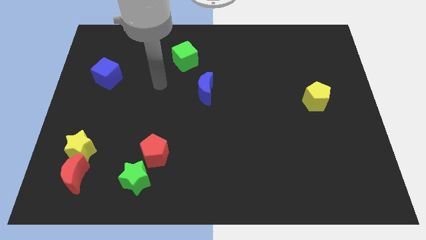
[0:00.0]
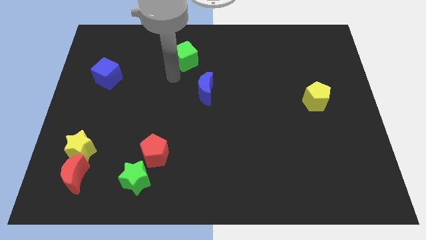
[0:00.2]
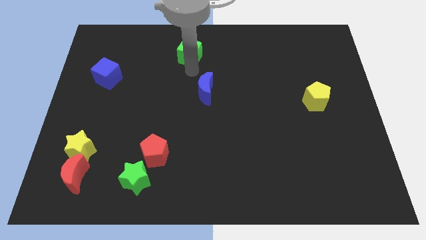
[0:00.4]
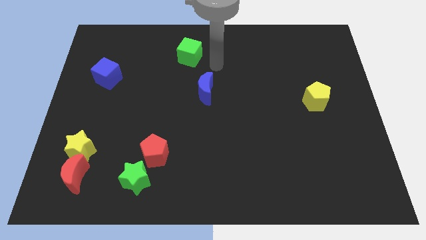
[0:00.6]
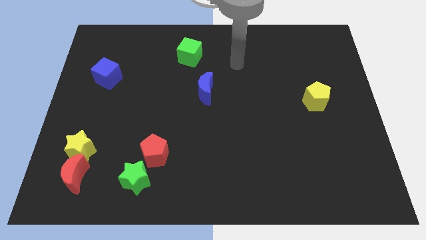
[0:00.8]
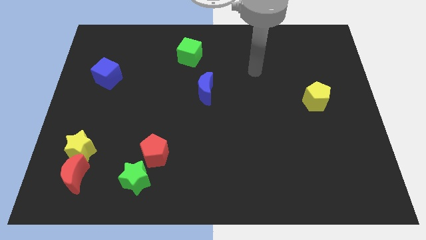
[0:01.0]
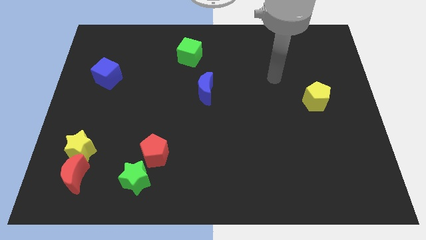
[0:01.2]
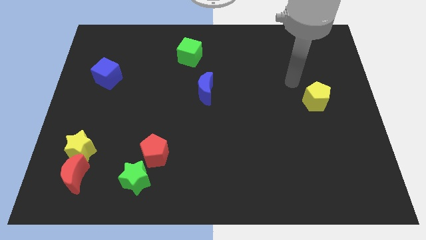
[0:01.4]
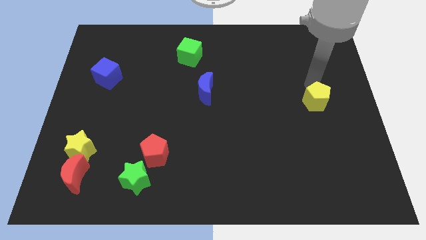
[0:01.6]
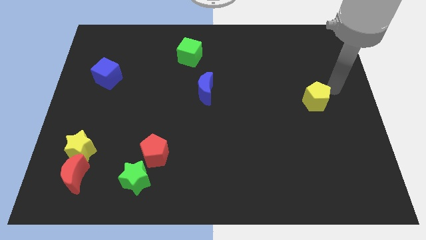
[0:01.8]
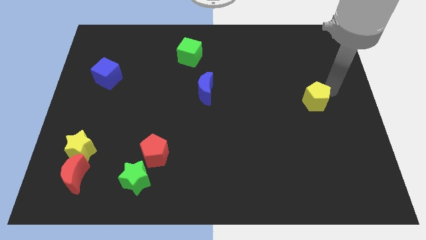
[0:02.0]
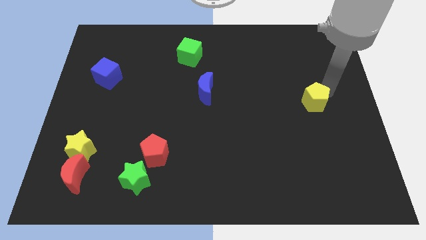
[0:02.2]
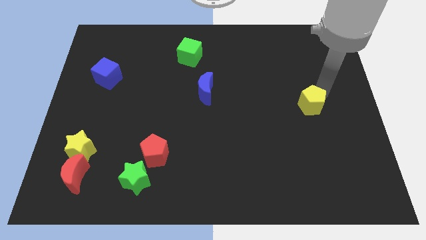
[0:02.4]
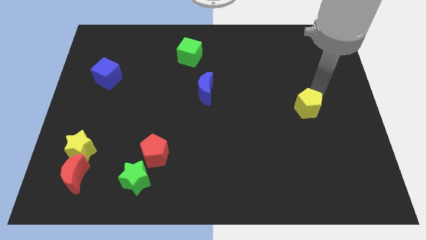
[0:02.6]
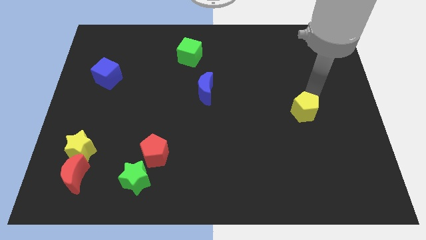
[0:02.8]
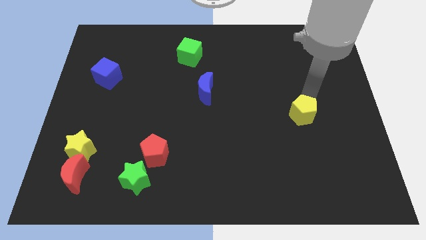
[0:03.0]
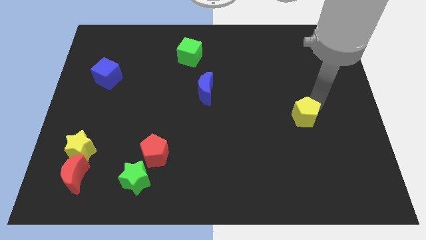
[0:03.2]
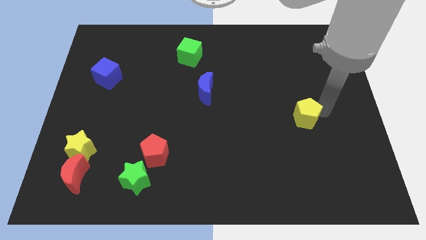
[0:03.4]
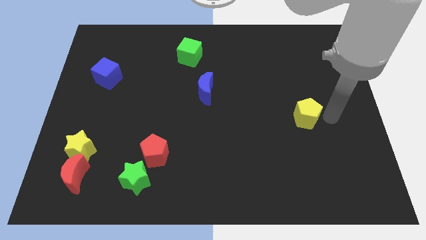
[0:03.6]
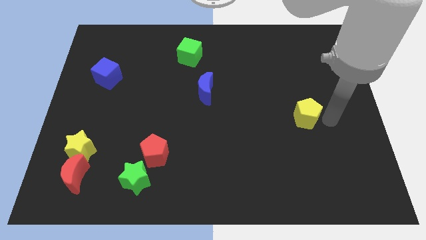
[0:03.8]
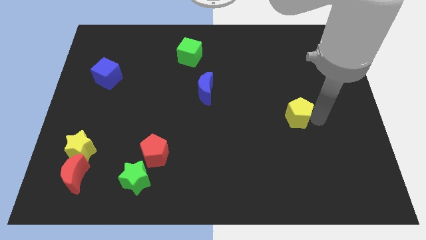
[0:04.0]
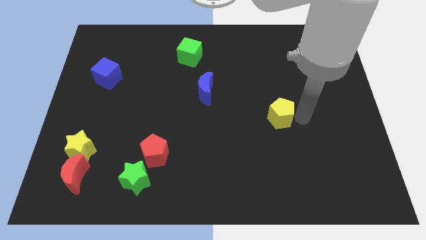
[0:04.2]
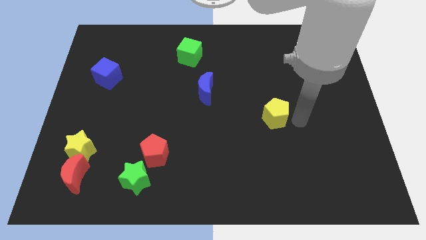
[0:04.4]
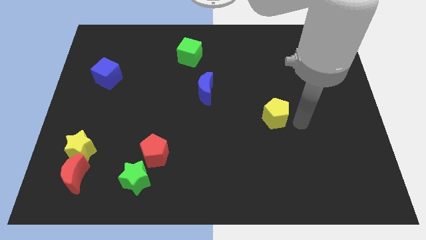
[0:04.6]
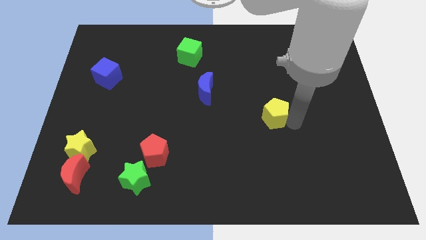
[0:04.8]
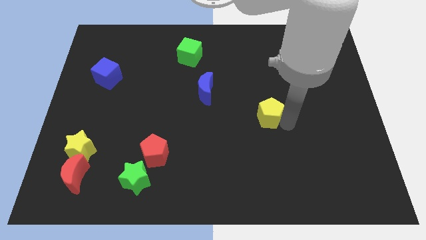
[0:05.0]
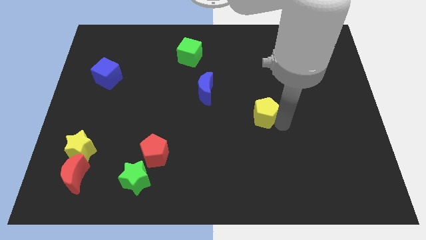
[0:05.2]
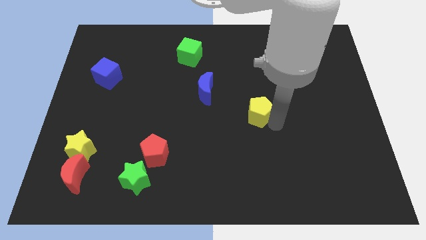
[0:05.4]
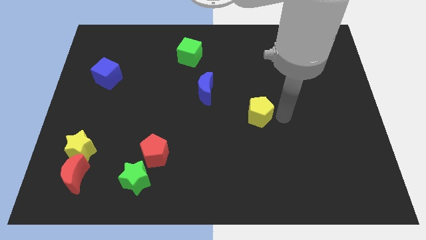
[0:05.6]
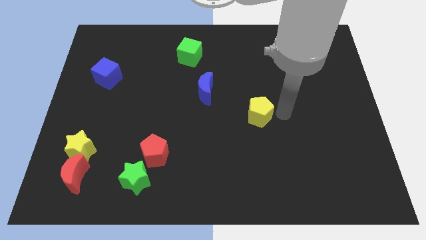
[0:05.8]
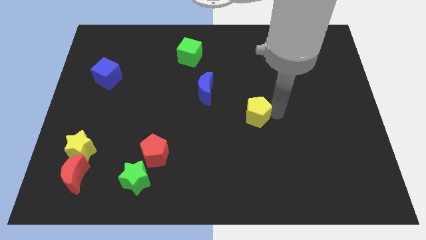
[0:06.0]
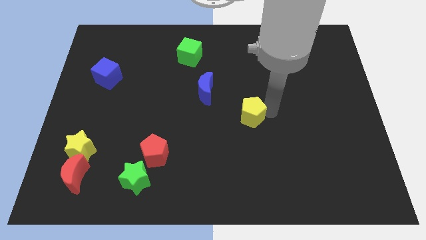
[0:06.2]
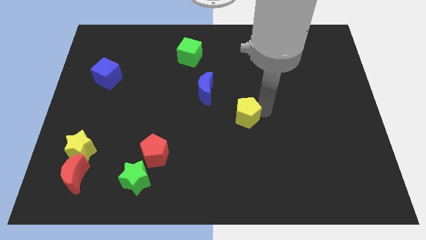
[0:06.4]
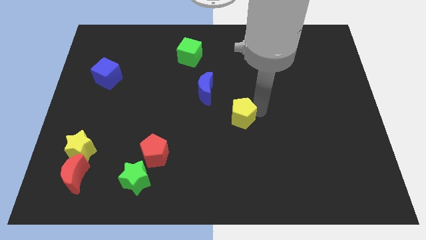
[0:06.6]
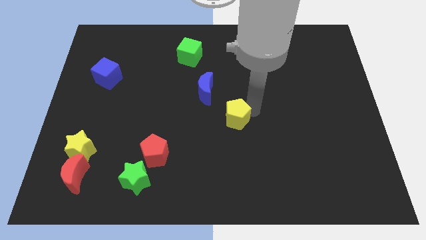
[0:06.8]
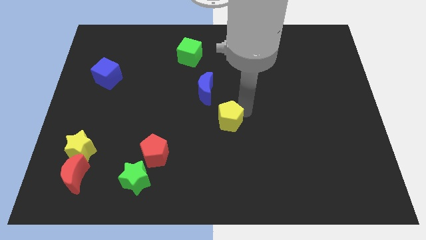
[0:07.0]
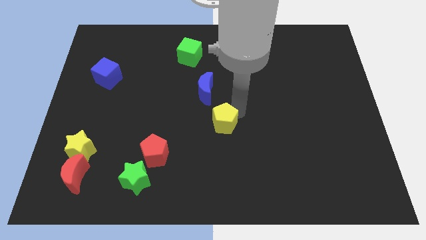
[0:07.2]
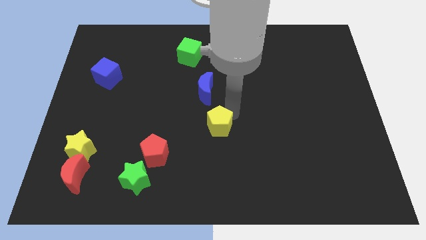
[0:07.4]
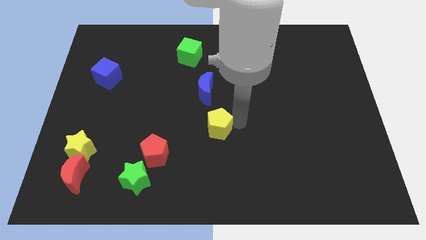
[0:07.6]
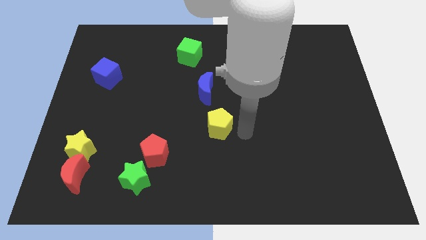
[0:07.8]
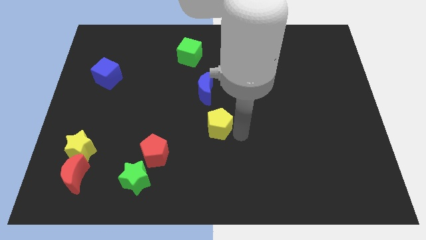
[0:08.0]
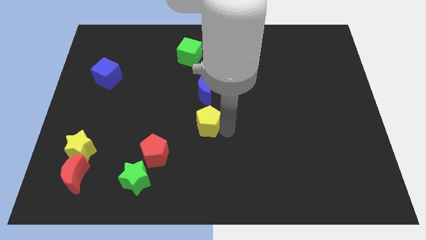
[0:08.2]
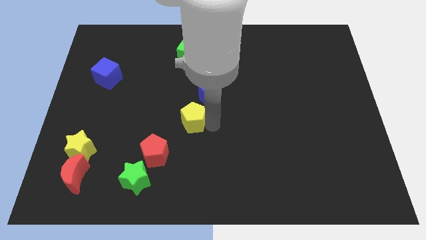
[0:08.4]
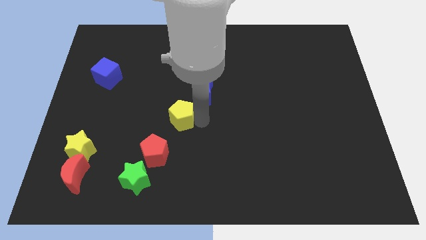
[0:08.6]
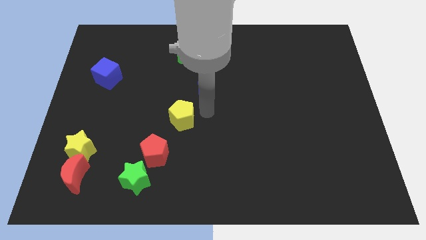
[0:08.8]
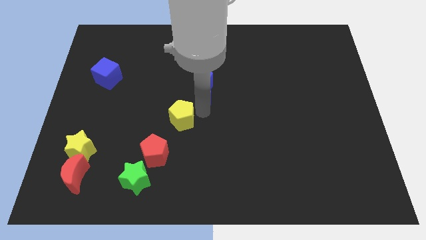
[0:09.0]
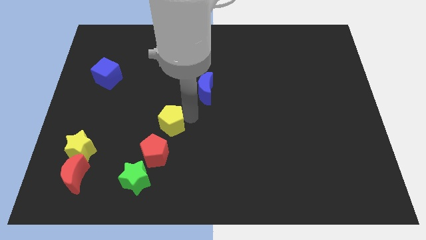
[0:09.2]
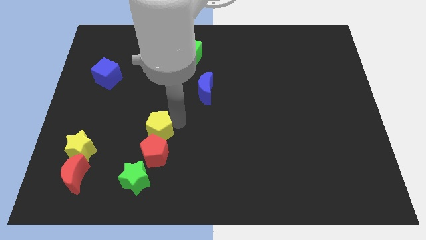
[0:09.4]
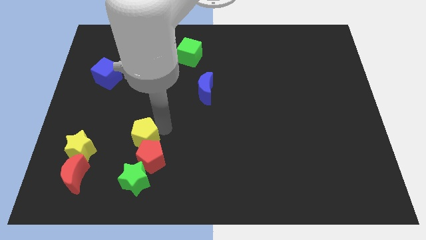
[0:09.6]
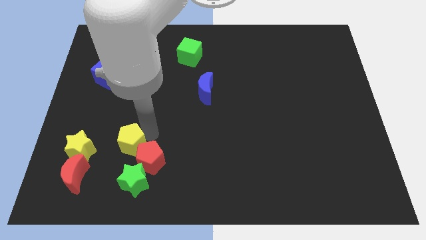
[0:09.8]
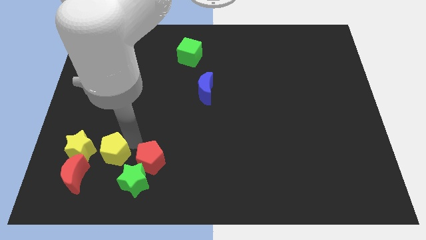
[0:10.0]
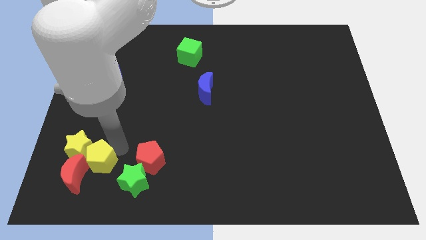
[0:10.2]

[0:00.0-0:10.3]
push the yellow pentagon to the red moon

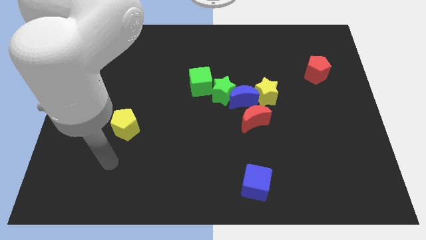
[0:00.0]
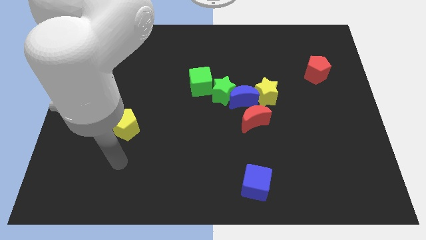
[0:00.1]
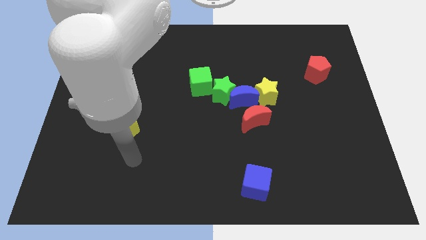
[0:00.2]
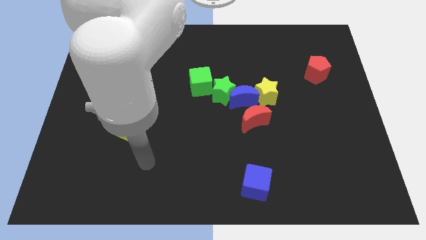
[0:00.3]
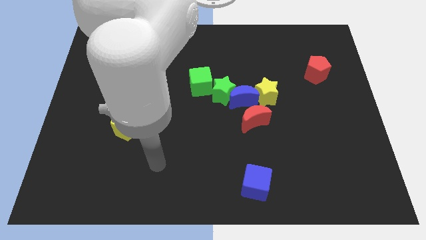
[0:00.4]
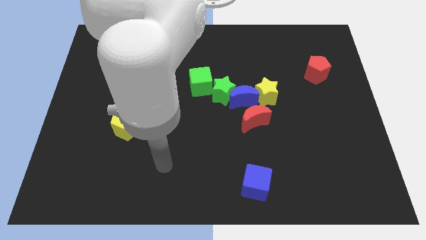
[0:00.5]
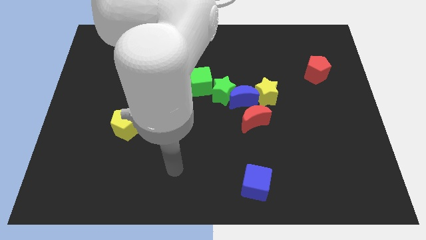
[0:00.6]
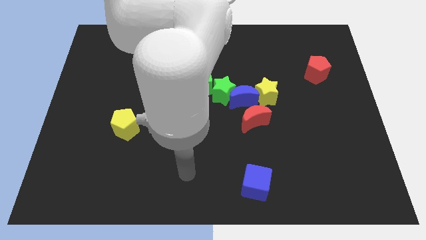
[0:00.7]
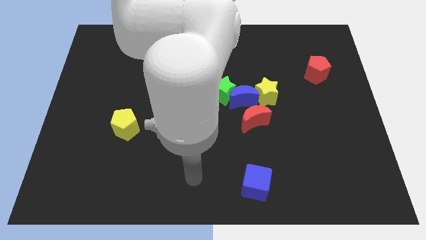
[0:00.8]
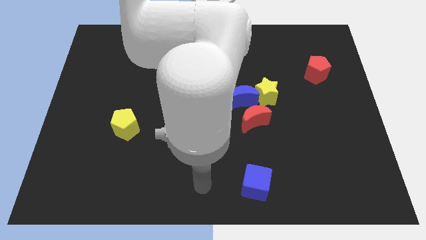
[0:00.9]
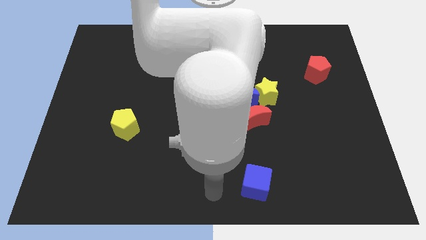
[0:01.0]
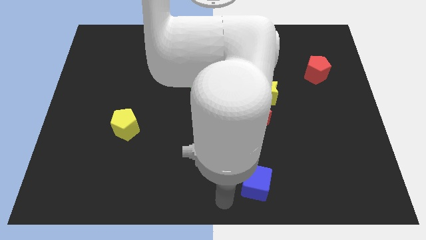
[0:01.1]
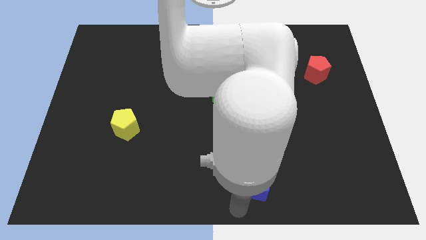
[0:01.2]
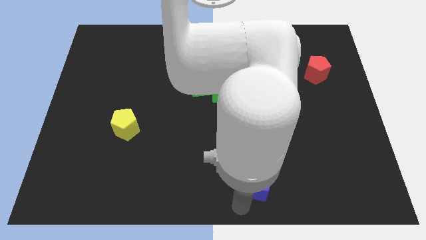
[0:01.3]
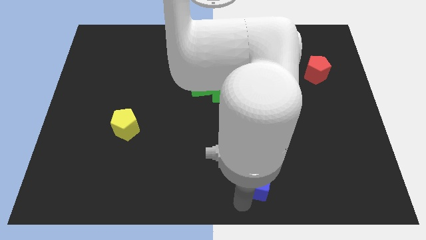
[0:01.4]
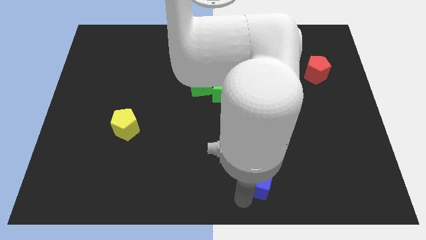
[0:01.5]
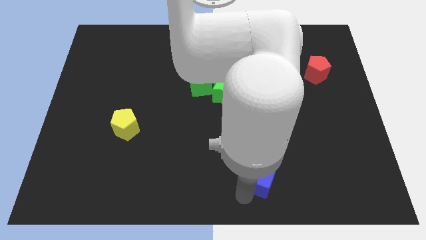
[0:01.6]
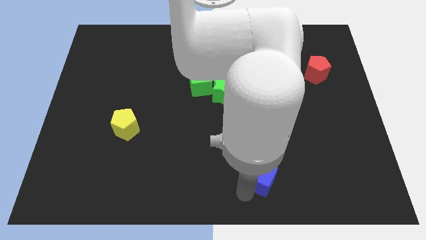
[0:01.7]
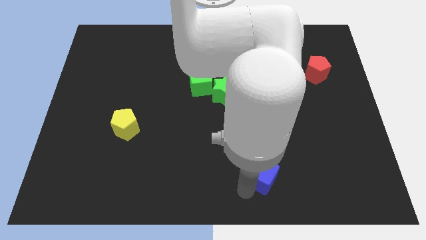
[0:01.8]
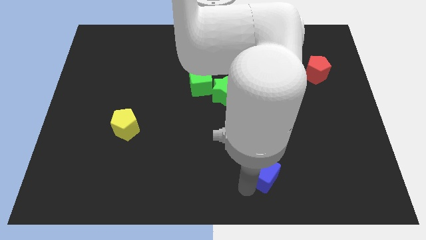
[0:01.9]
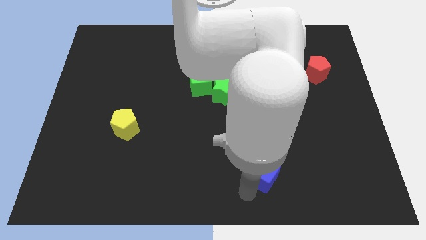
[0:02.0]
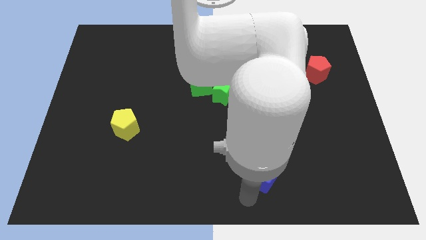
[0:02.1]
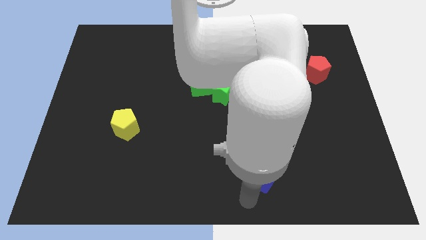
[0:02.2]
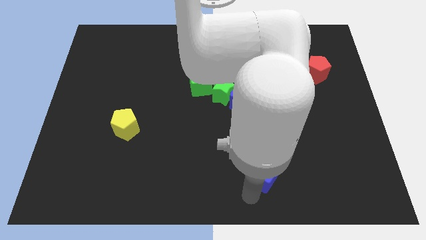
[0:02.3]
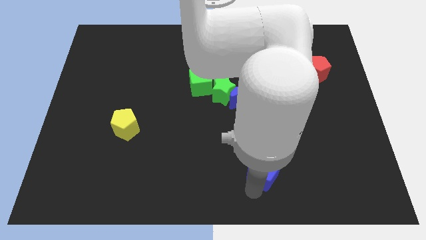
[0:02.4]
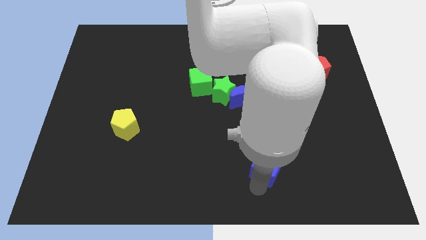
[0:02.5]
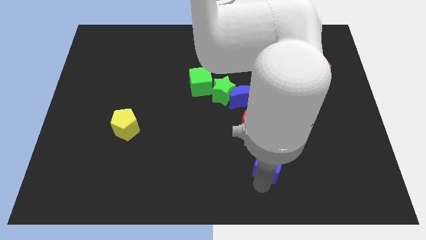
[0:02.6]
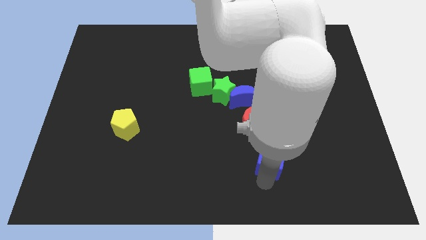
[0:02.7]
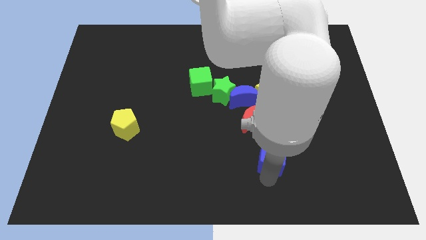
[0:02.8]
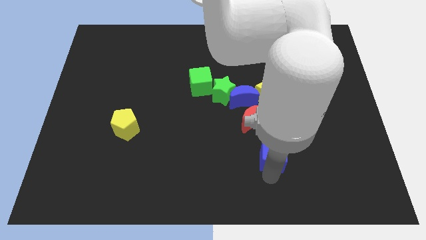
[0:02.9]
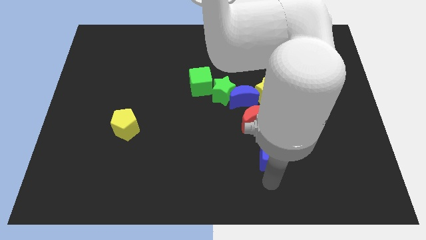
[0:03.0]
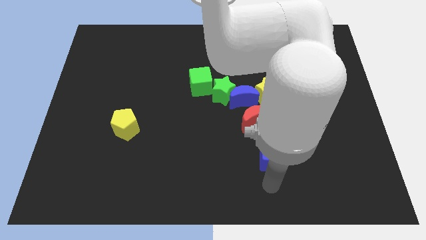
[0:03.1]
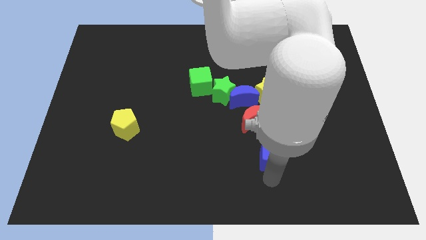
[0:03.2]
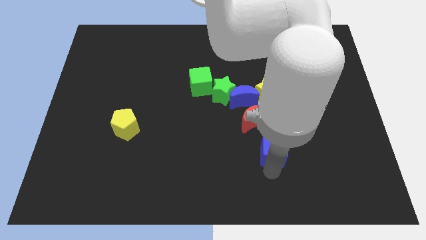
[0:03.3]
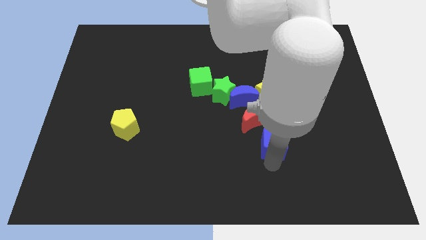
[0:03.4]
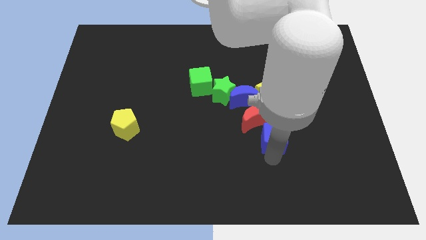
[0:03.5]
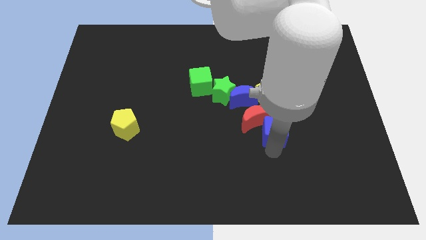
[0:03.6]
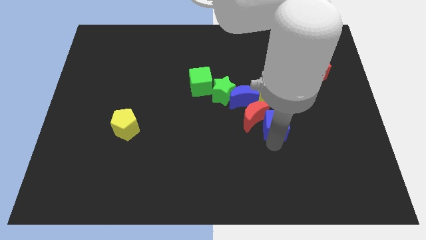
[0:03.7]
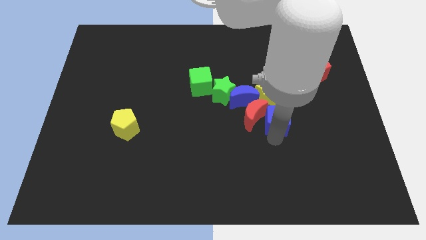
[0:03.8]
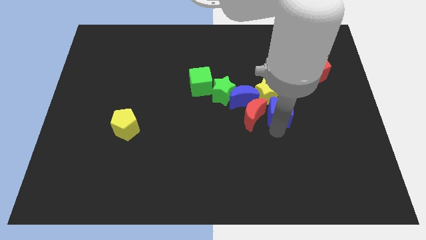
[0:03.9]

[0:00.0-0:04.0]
put the blue cube close to the yellow star
